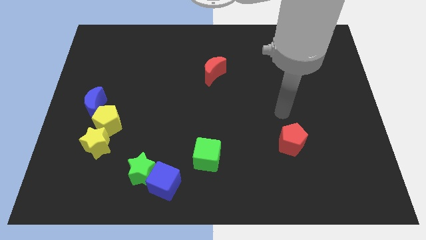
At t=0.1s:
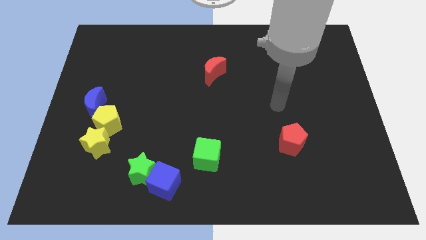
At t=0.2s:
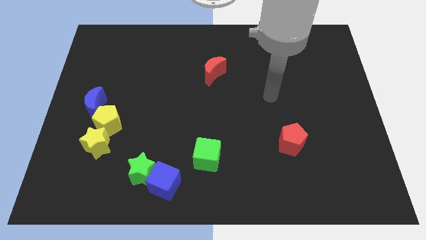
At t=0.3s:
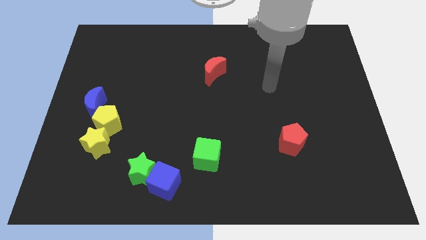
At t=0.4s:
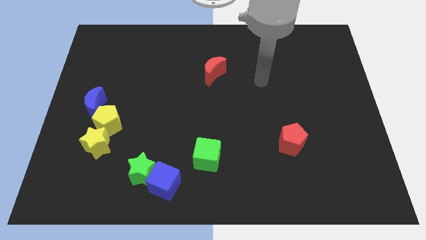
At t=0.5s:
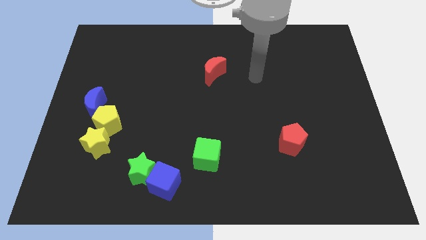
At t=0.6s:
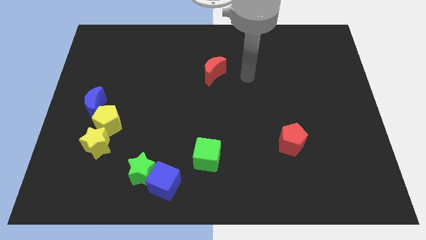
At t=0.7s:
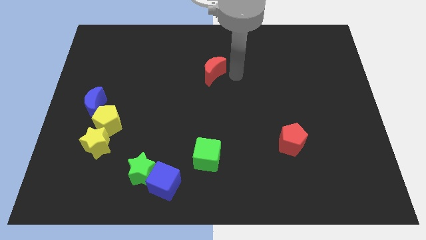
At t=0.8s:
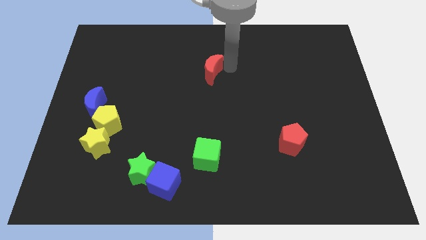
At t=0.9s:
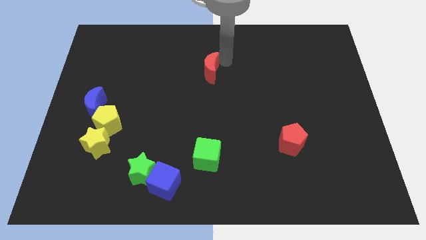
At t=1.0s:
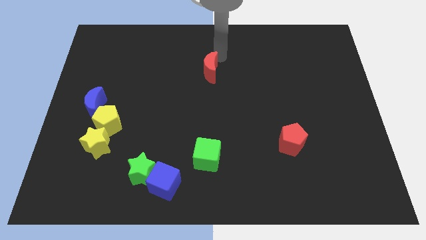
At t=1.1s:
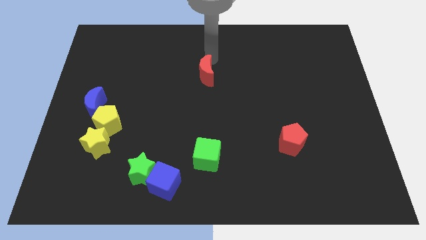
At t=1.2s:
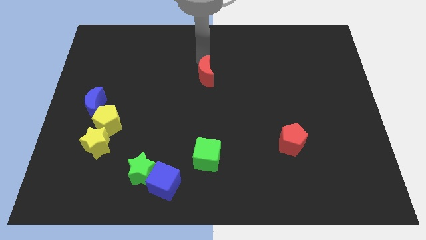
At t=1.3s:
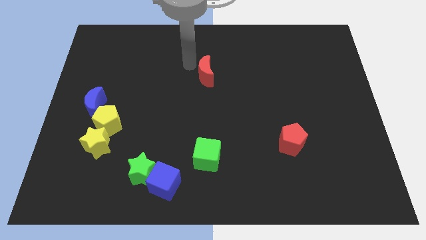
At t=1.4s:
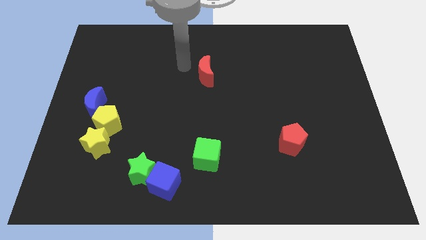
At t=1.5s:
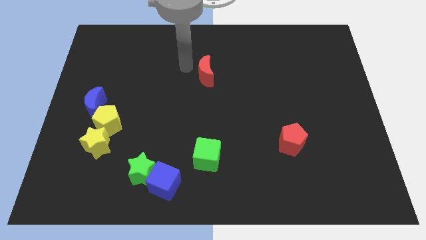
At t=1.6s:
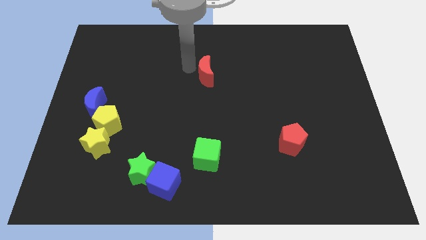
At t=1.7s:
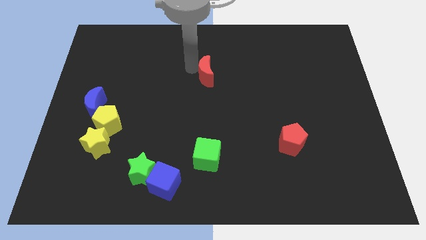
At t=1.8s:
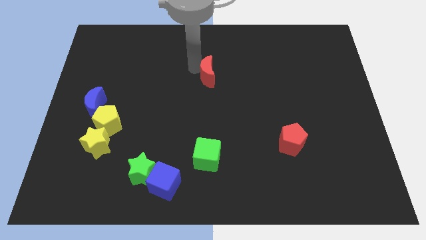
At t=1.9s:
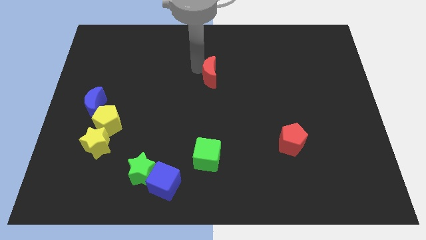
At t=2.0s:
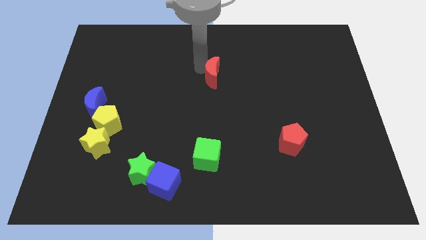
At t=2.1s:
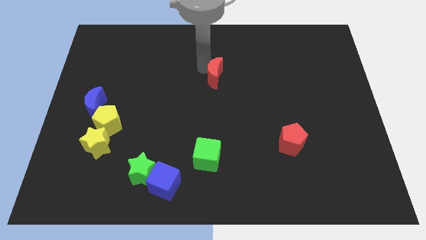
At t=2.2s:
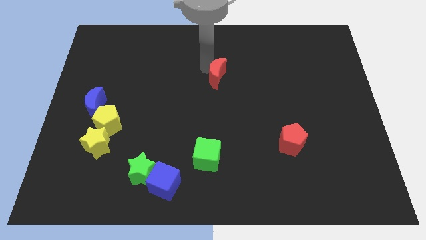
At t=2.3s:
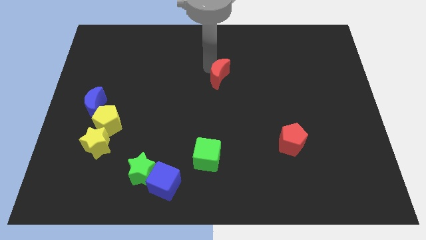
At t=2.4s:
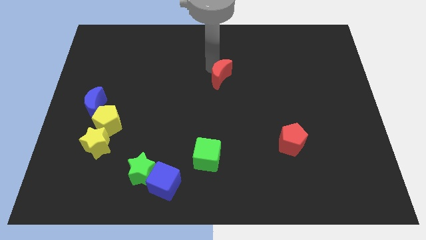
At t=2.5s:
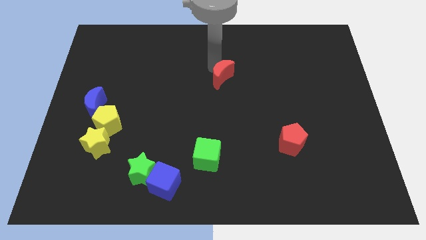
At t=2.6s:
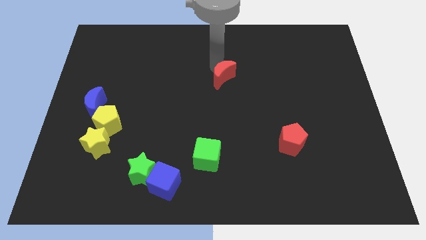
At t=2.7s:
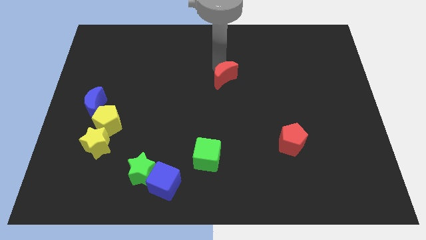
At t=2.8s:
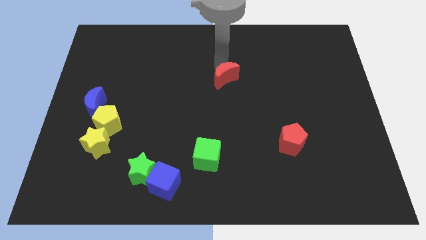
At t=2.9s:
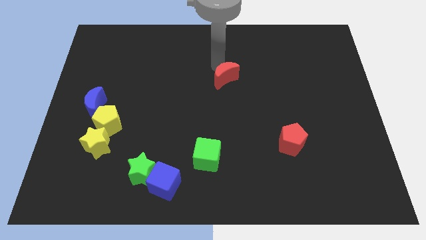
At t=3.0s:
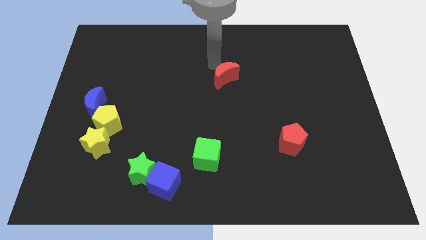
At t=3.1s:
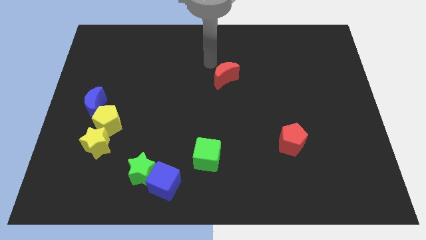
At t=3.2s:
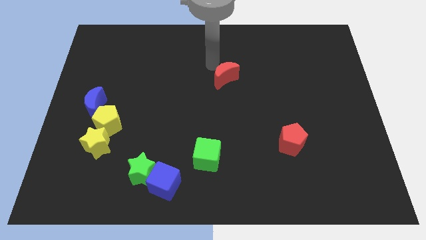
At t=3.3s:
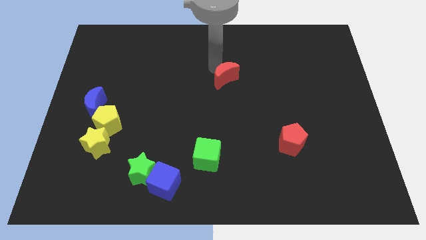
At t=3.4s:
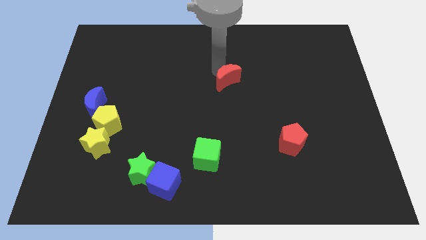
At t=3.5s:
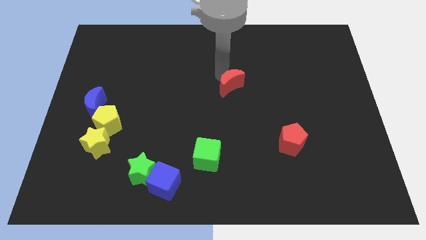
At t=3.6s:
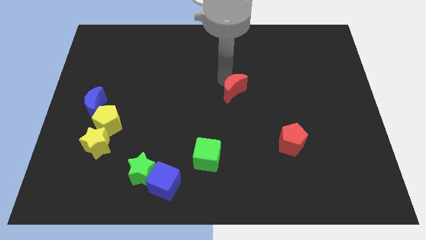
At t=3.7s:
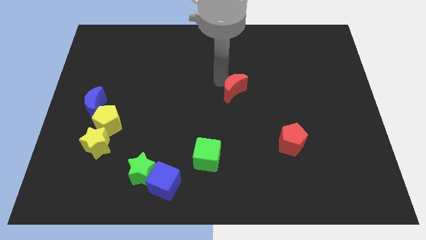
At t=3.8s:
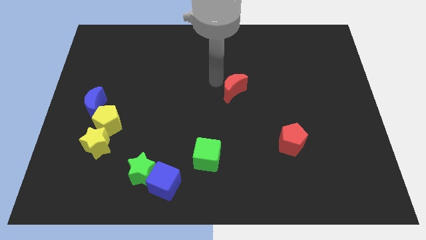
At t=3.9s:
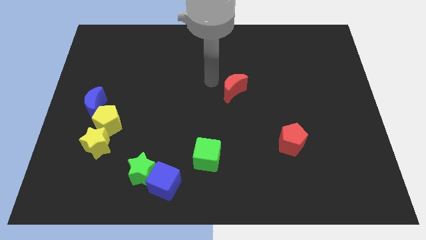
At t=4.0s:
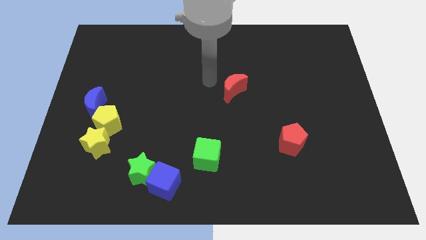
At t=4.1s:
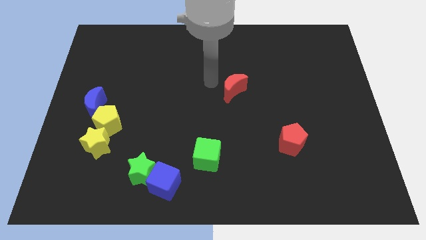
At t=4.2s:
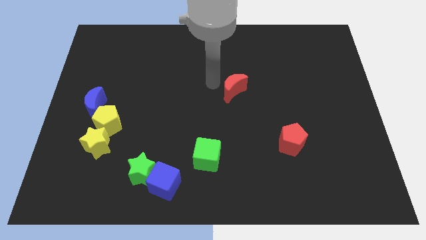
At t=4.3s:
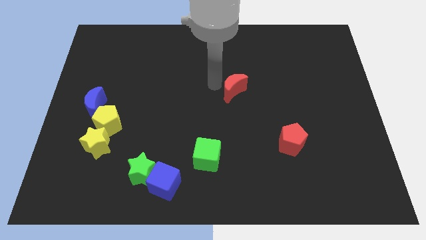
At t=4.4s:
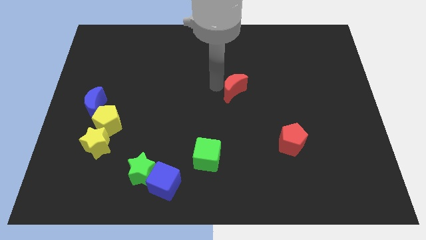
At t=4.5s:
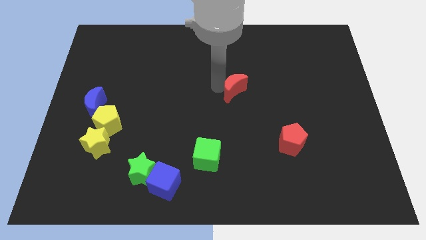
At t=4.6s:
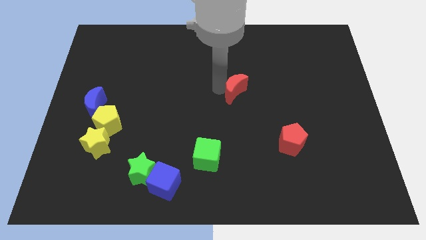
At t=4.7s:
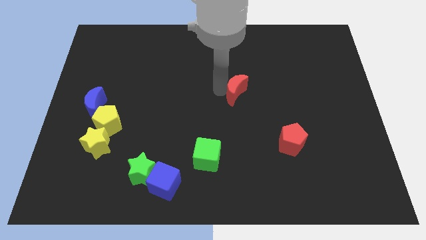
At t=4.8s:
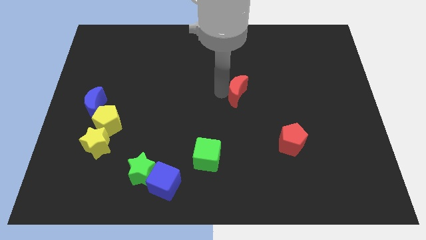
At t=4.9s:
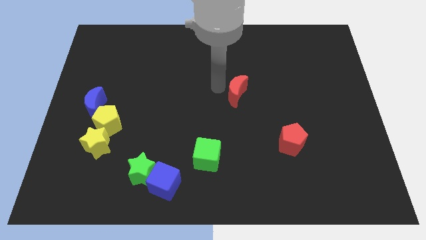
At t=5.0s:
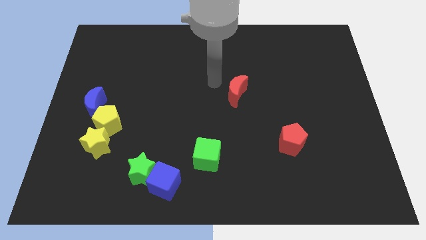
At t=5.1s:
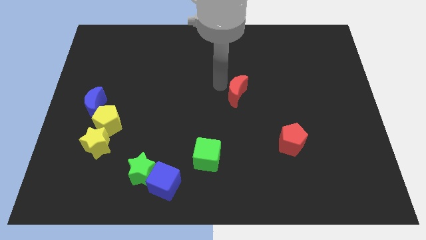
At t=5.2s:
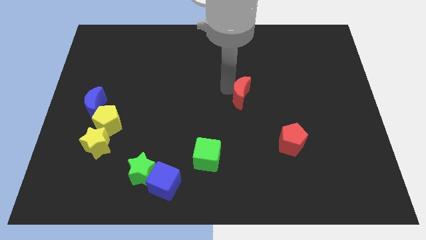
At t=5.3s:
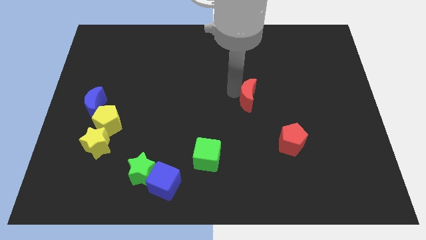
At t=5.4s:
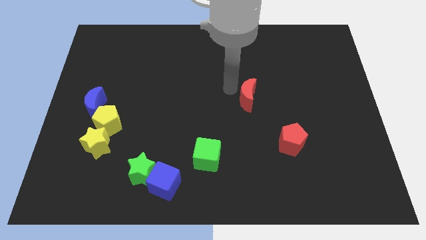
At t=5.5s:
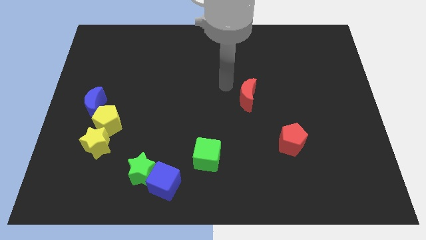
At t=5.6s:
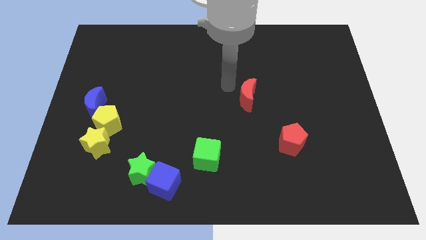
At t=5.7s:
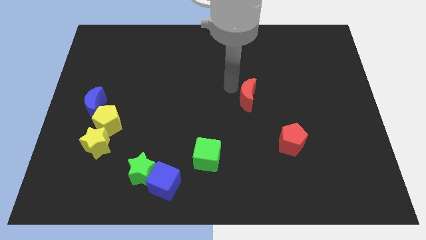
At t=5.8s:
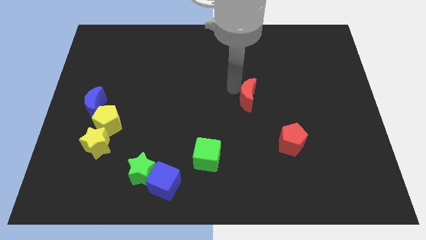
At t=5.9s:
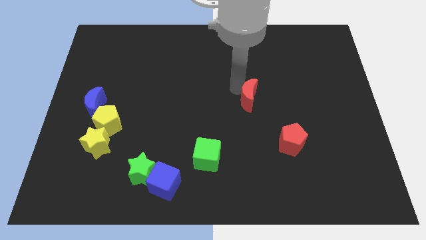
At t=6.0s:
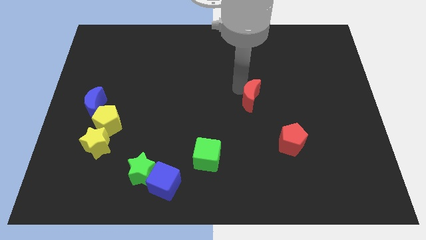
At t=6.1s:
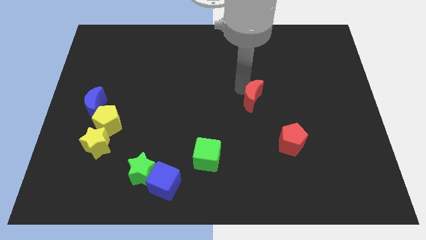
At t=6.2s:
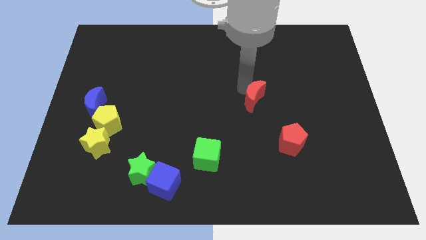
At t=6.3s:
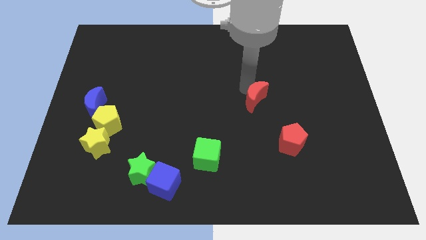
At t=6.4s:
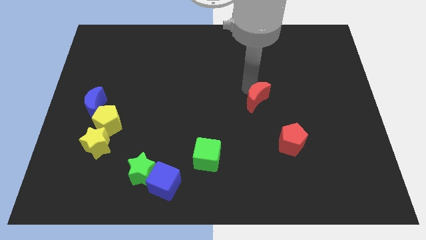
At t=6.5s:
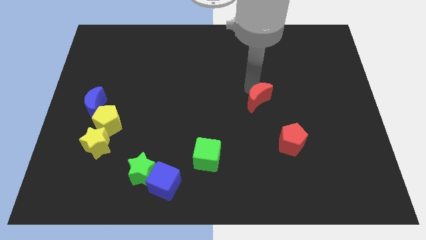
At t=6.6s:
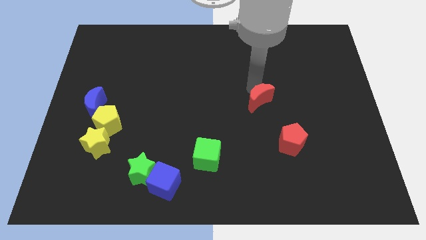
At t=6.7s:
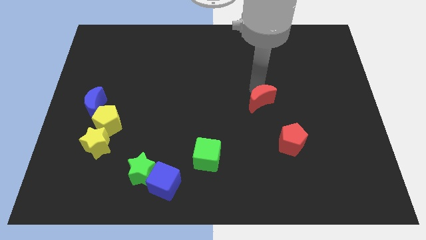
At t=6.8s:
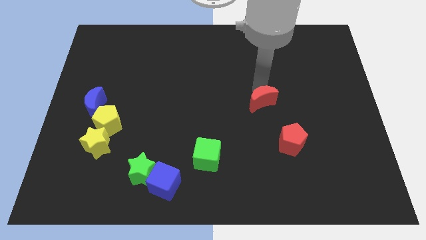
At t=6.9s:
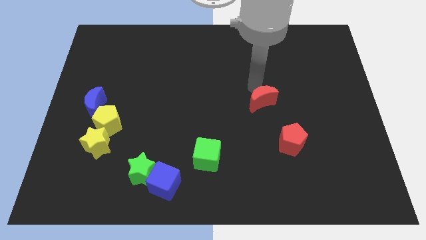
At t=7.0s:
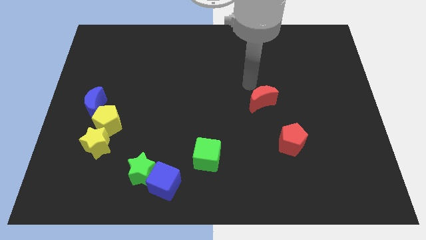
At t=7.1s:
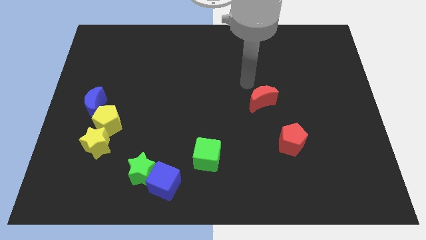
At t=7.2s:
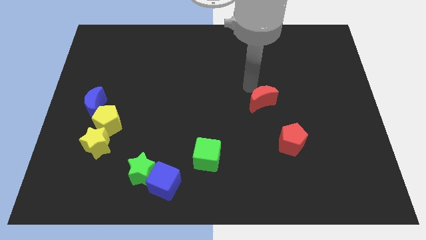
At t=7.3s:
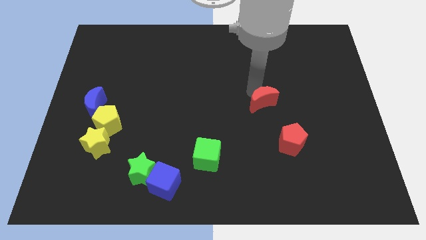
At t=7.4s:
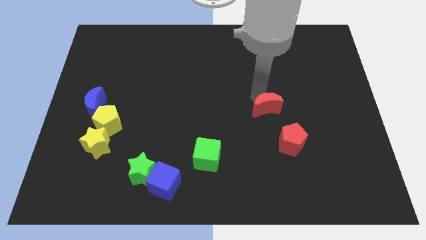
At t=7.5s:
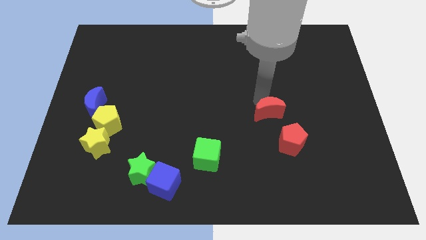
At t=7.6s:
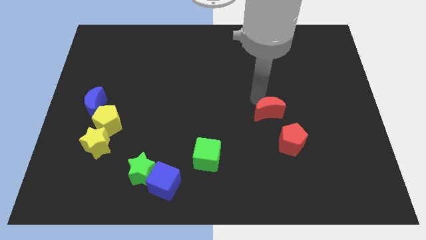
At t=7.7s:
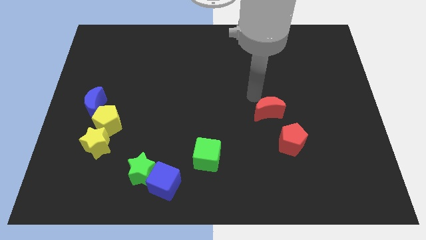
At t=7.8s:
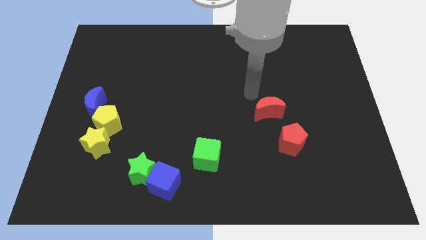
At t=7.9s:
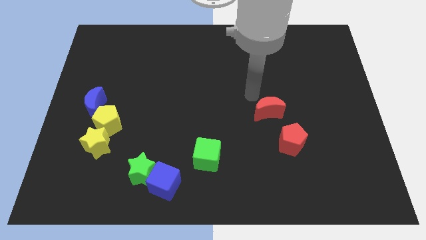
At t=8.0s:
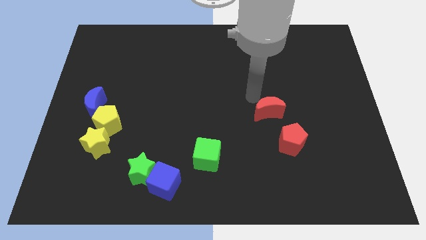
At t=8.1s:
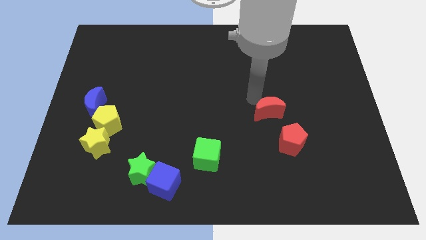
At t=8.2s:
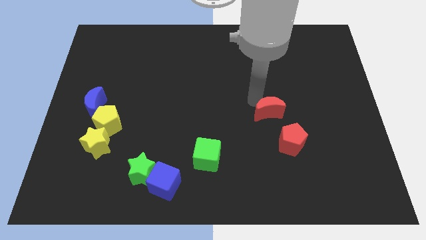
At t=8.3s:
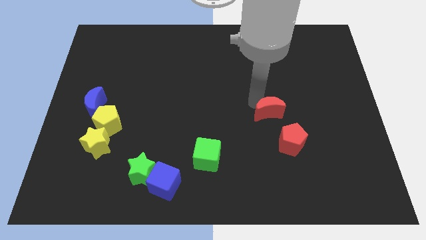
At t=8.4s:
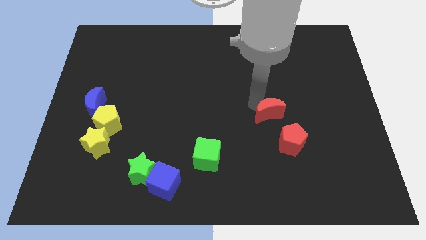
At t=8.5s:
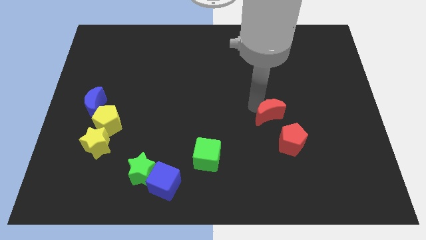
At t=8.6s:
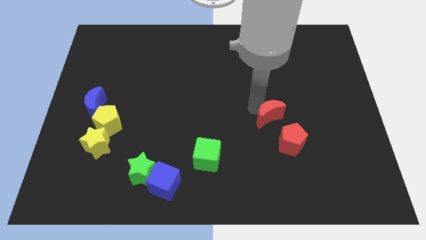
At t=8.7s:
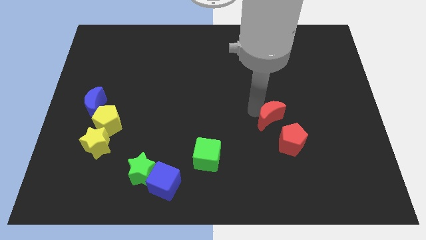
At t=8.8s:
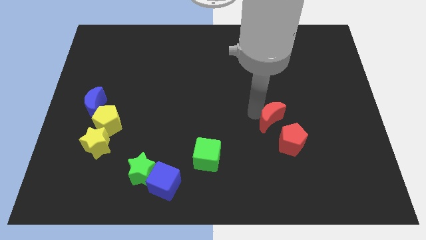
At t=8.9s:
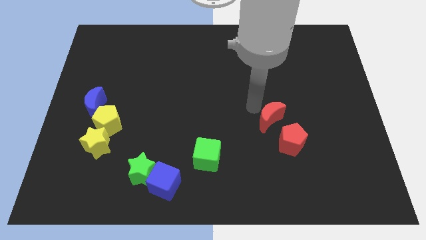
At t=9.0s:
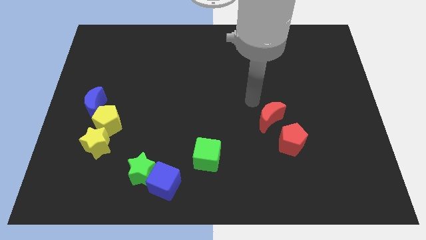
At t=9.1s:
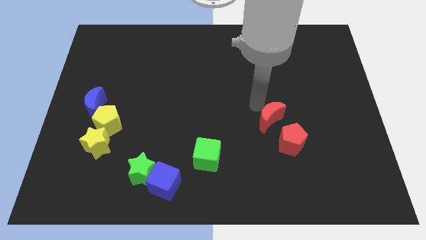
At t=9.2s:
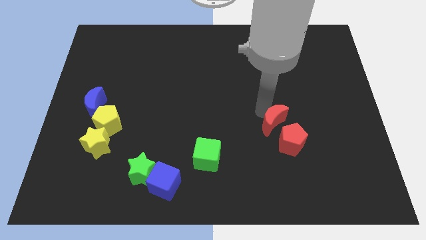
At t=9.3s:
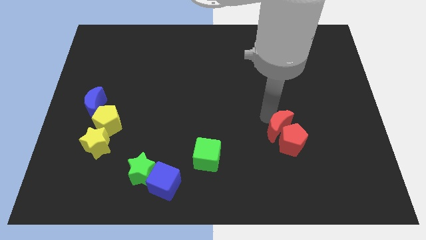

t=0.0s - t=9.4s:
push the red moon close to the red pentagon
